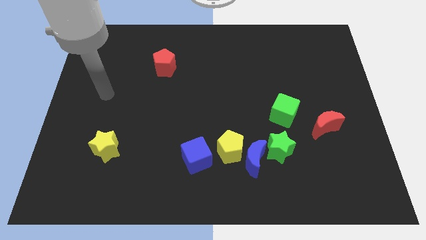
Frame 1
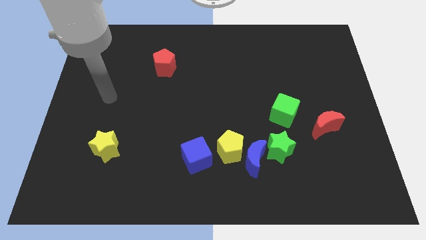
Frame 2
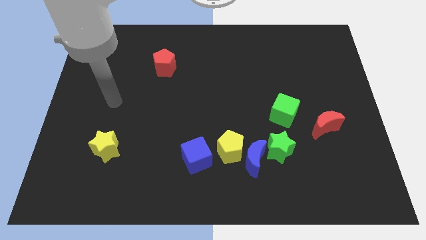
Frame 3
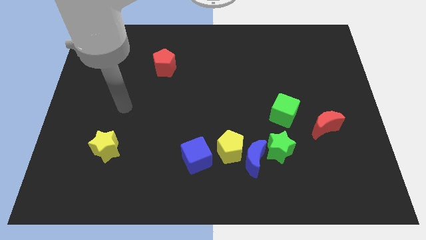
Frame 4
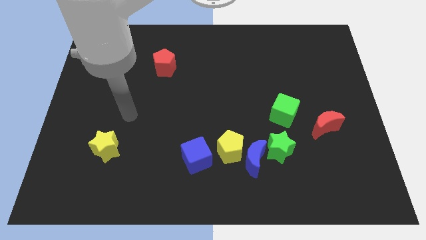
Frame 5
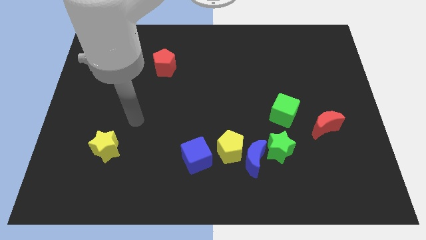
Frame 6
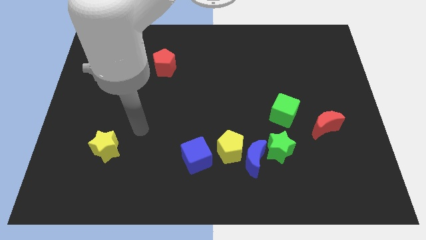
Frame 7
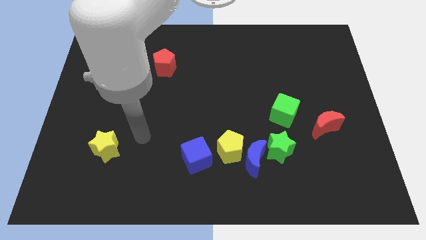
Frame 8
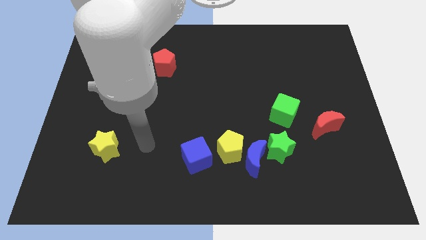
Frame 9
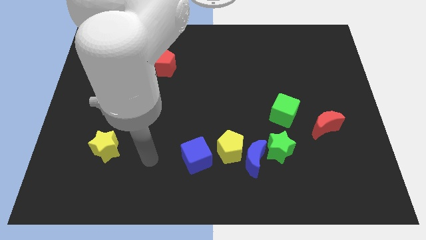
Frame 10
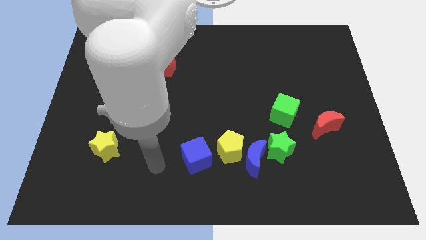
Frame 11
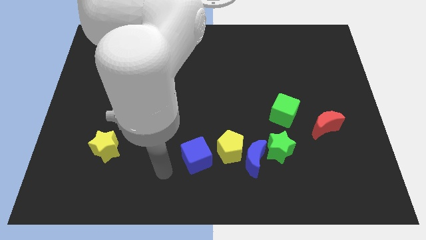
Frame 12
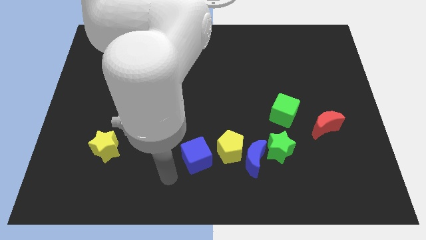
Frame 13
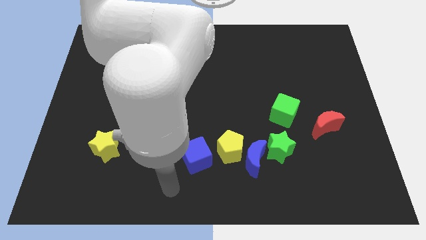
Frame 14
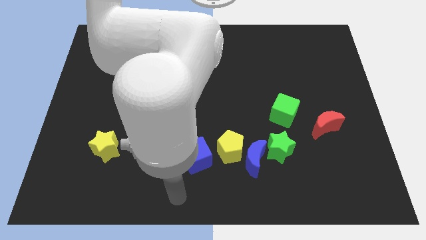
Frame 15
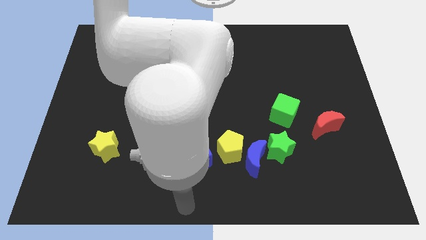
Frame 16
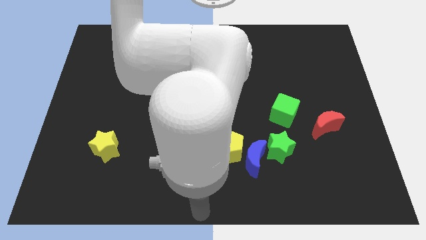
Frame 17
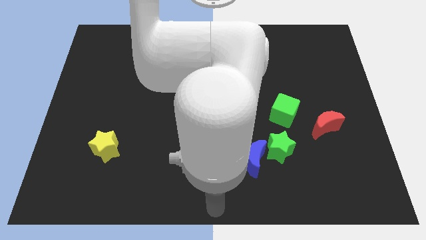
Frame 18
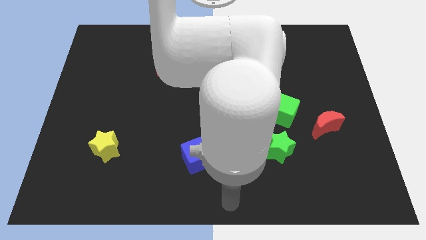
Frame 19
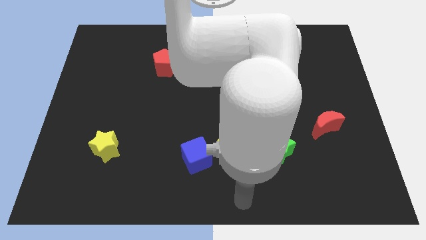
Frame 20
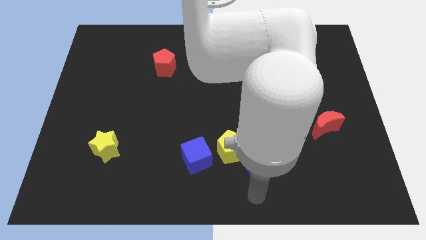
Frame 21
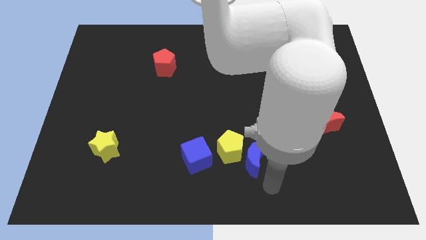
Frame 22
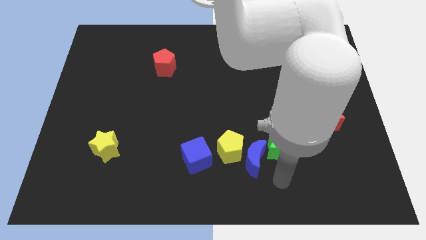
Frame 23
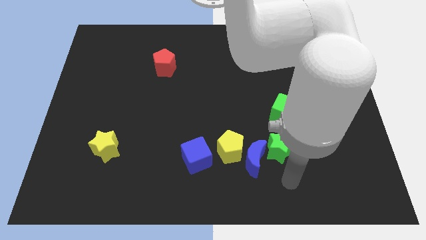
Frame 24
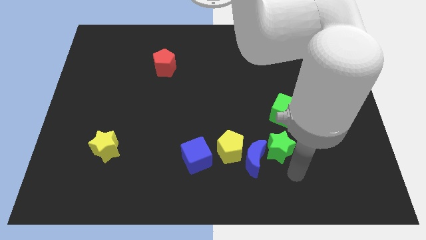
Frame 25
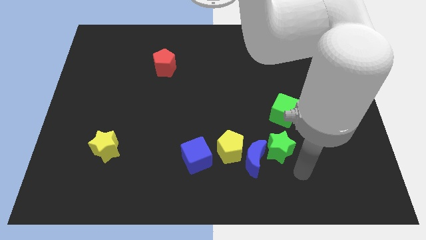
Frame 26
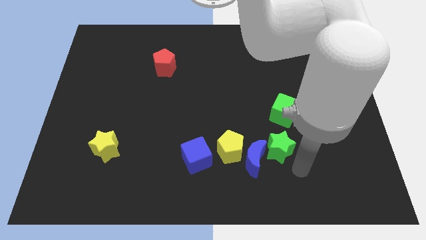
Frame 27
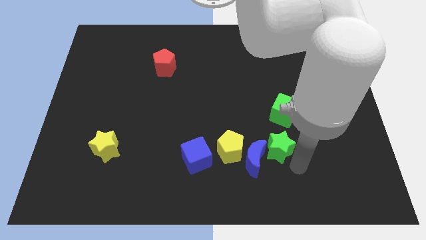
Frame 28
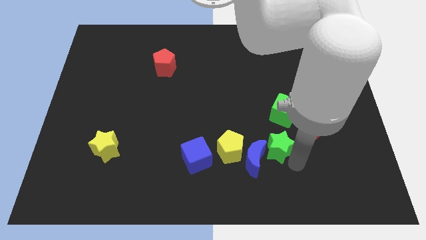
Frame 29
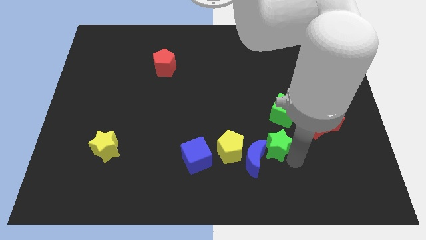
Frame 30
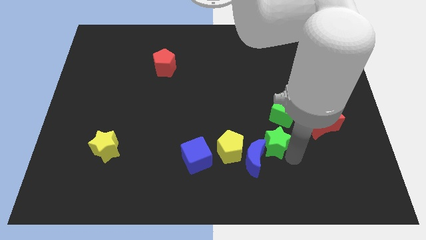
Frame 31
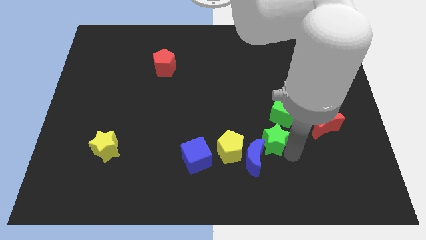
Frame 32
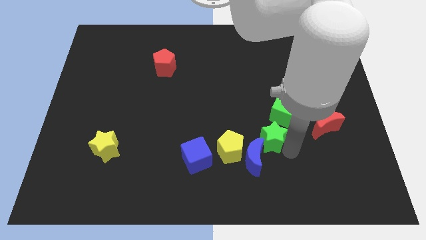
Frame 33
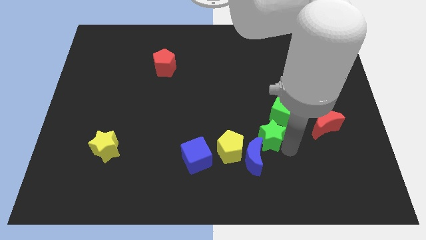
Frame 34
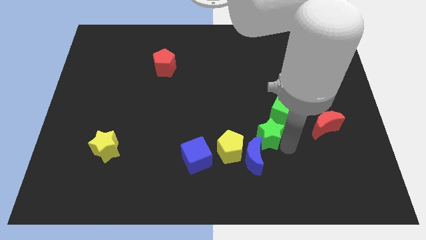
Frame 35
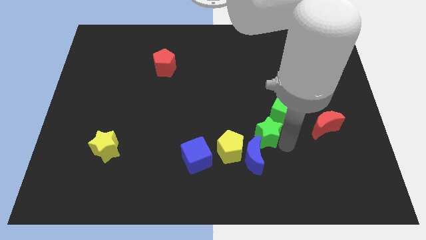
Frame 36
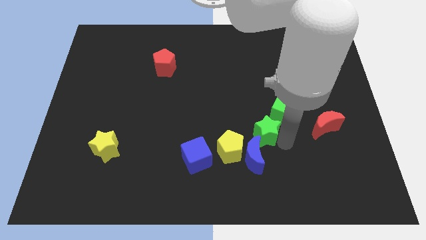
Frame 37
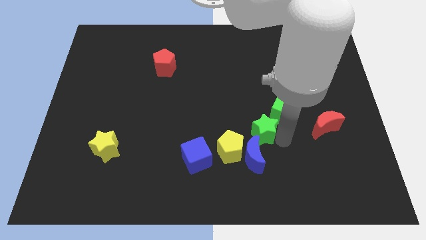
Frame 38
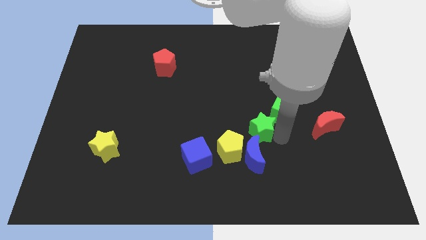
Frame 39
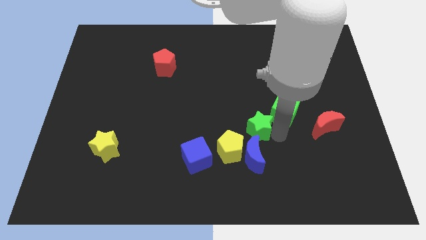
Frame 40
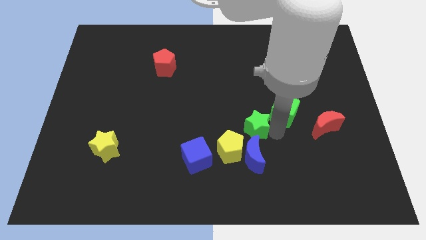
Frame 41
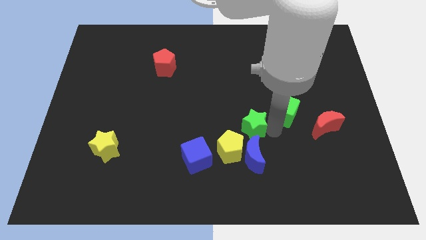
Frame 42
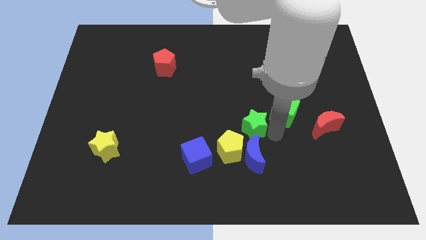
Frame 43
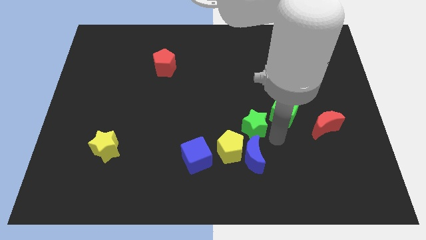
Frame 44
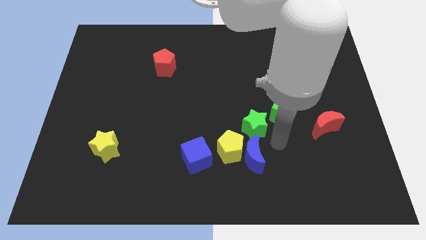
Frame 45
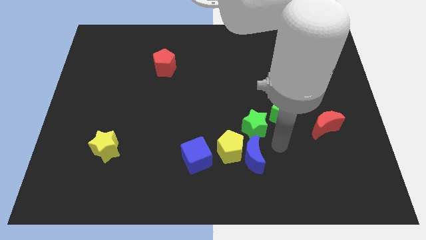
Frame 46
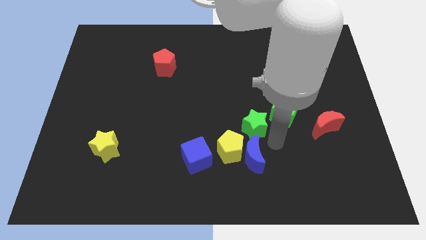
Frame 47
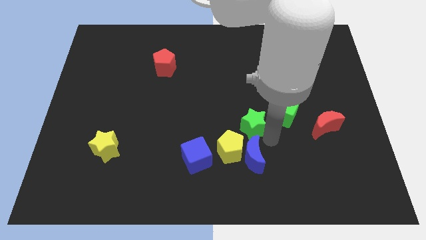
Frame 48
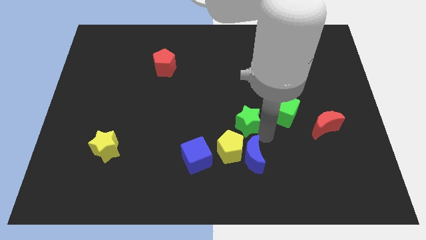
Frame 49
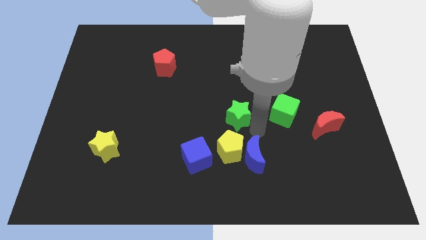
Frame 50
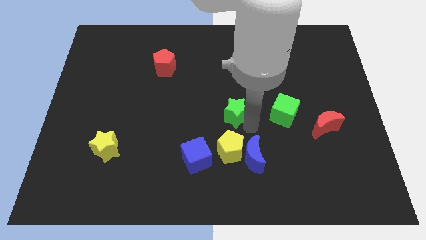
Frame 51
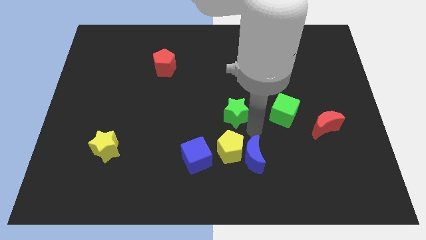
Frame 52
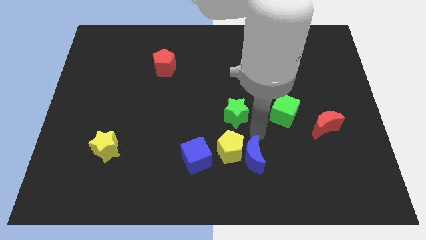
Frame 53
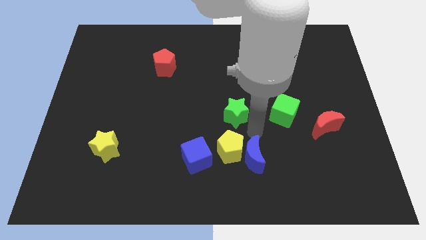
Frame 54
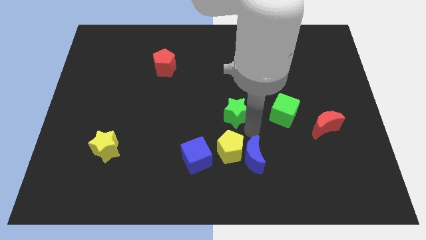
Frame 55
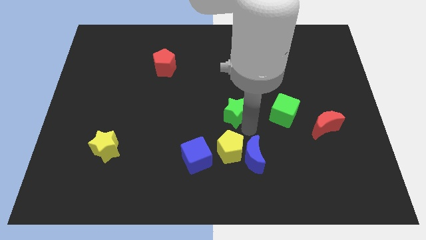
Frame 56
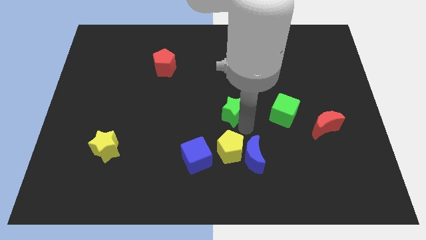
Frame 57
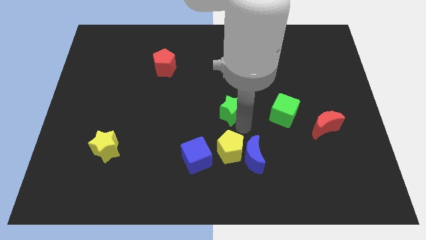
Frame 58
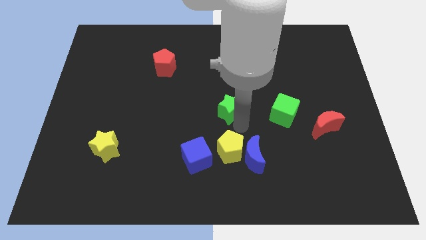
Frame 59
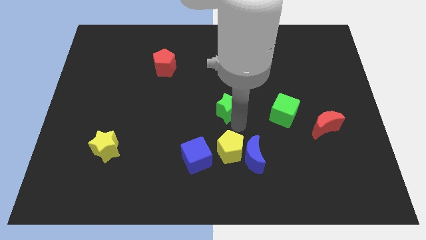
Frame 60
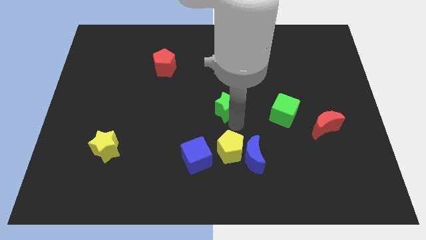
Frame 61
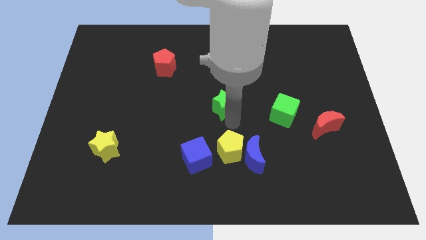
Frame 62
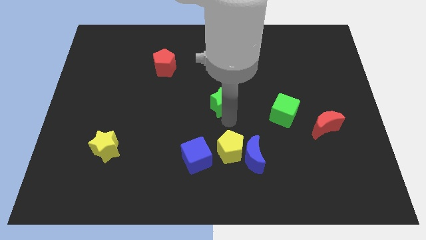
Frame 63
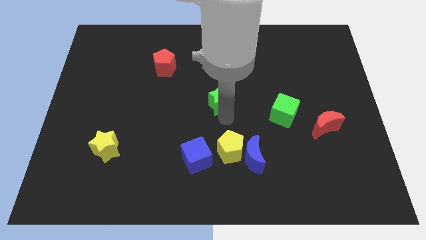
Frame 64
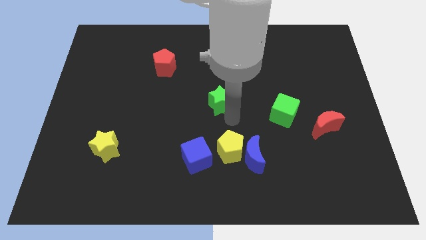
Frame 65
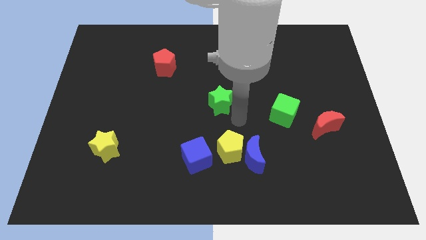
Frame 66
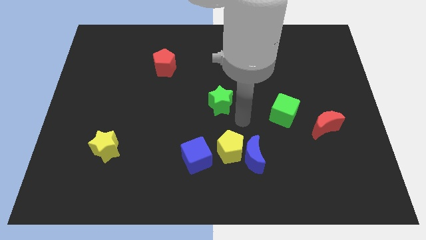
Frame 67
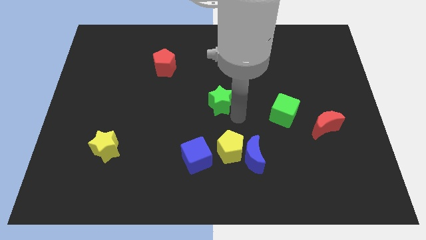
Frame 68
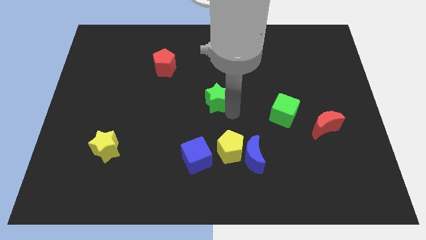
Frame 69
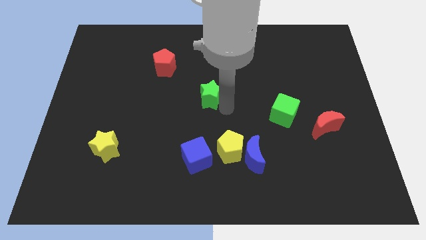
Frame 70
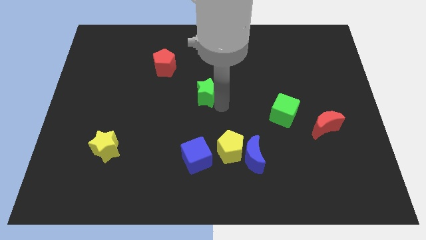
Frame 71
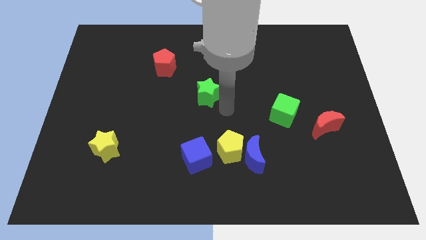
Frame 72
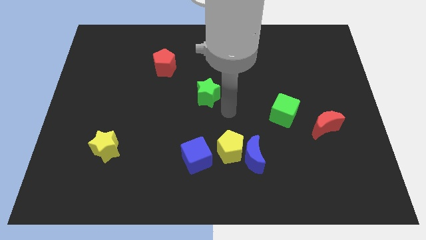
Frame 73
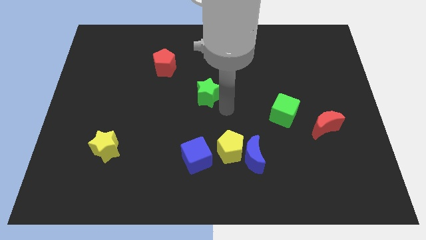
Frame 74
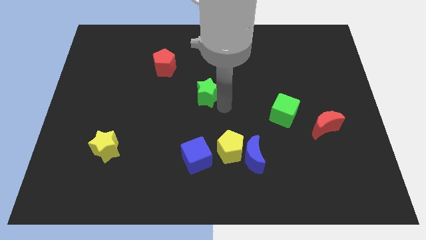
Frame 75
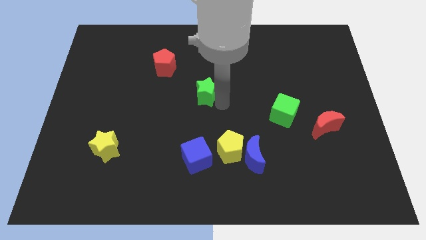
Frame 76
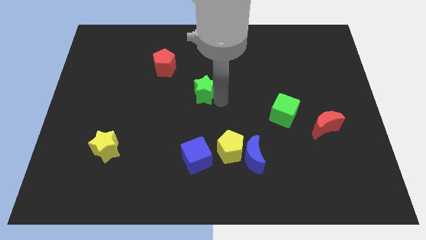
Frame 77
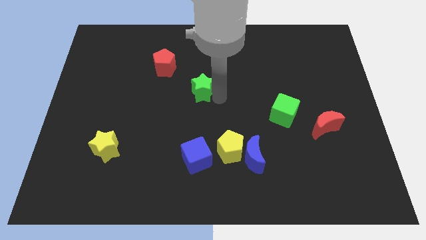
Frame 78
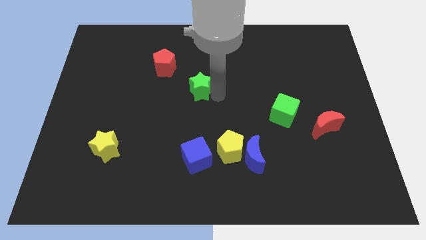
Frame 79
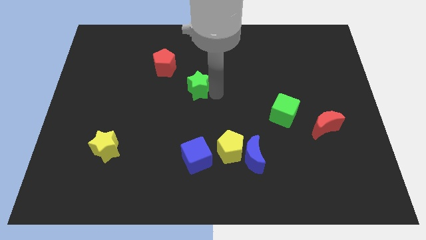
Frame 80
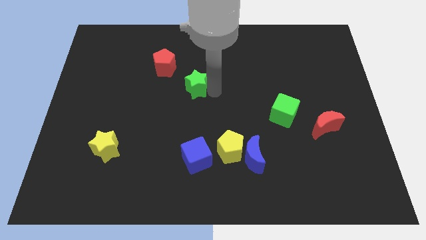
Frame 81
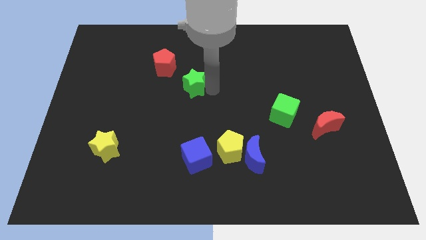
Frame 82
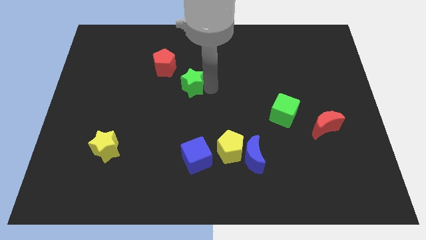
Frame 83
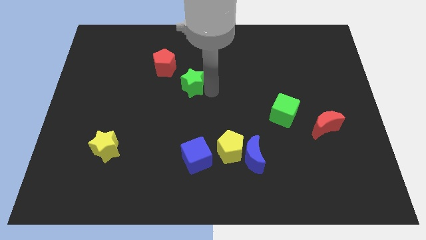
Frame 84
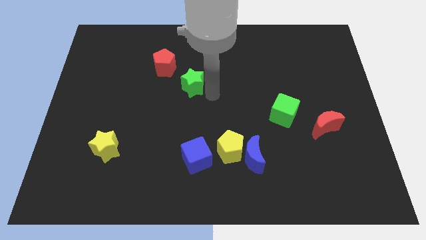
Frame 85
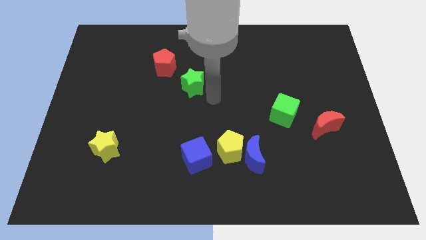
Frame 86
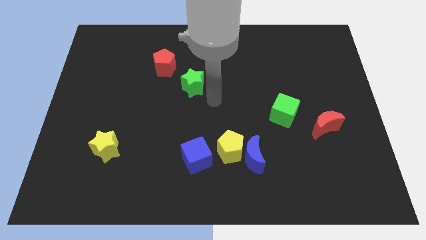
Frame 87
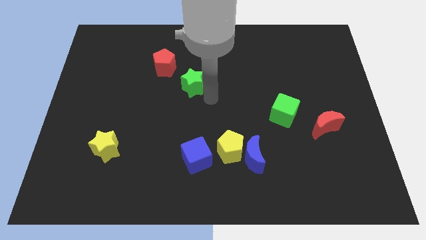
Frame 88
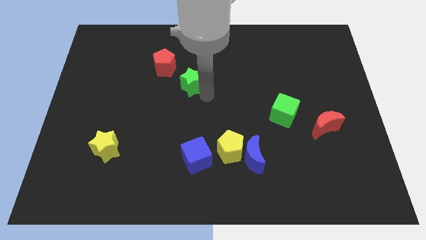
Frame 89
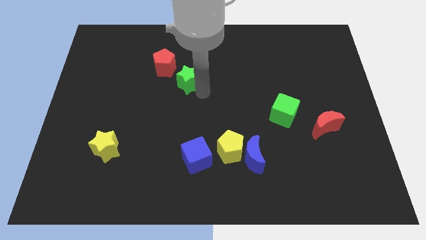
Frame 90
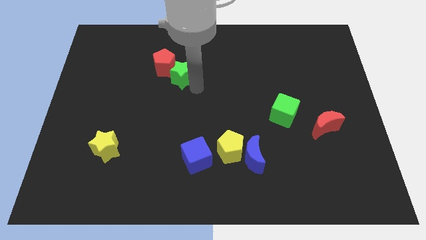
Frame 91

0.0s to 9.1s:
move the green star to the red pentagon
